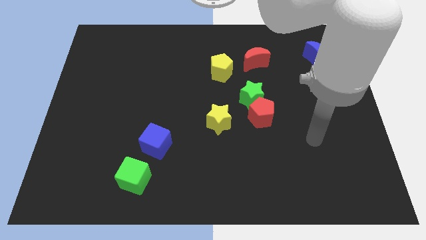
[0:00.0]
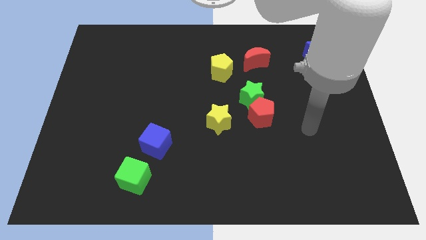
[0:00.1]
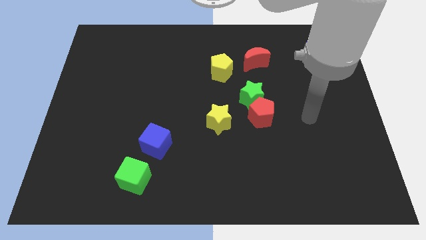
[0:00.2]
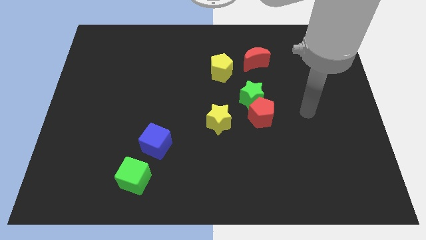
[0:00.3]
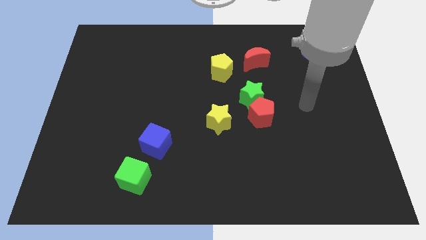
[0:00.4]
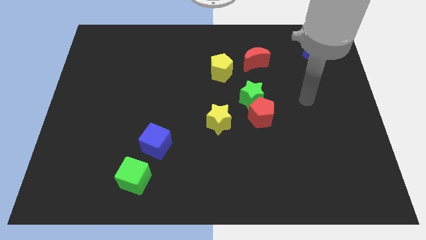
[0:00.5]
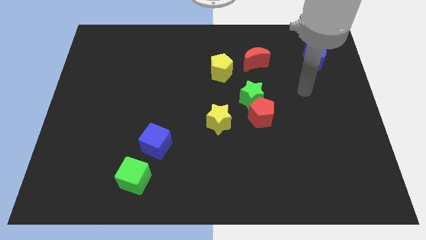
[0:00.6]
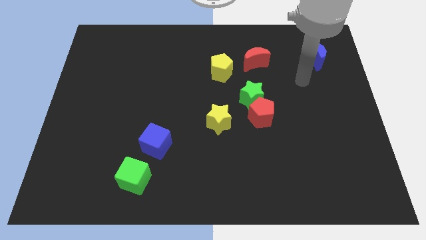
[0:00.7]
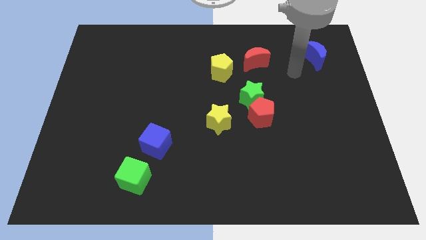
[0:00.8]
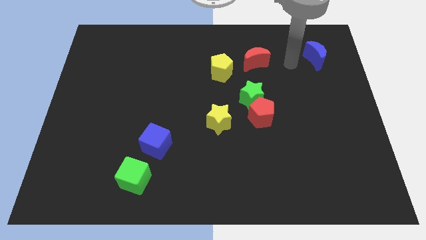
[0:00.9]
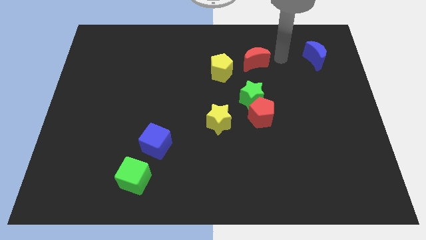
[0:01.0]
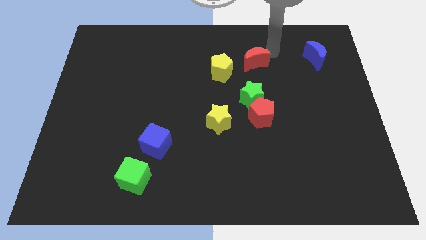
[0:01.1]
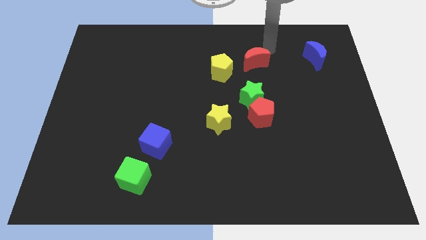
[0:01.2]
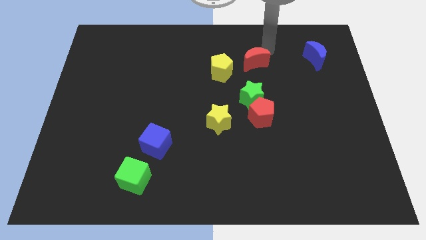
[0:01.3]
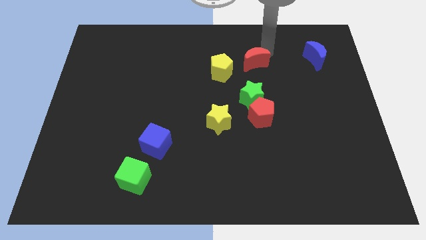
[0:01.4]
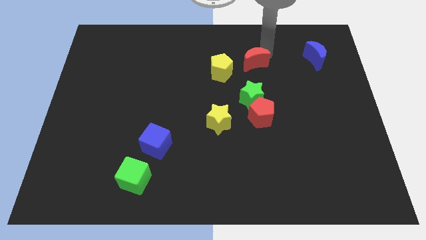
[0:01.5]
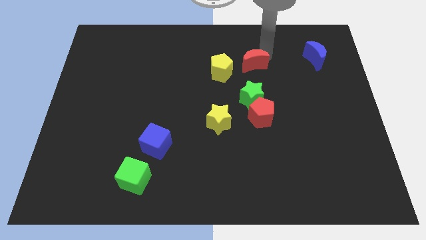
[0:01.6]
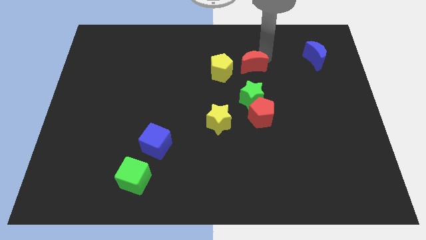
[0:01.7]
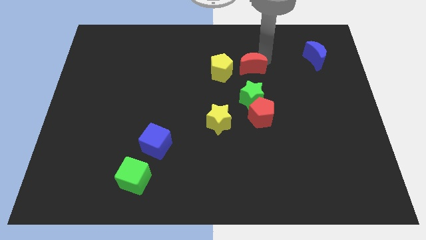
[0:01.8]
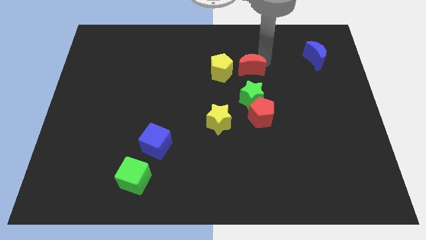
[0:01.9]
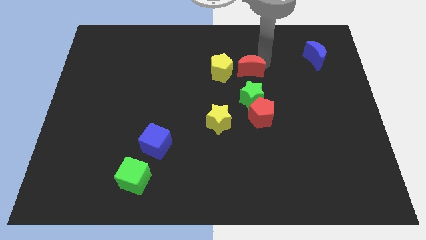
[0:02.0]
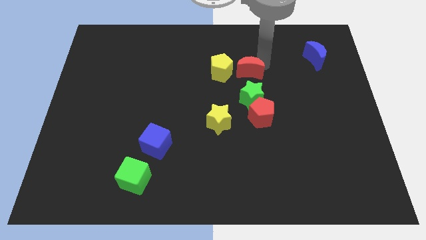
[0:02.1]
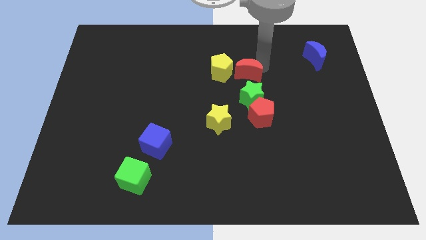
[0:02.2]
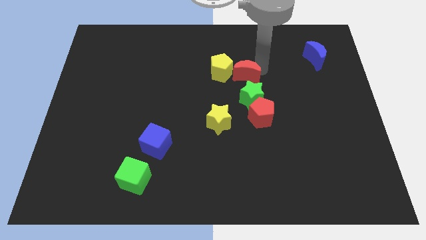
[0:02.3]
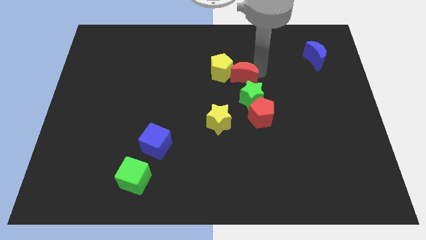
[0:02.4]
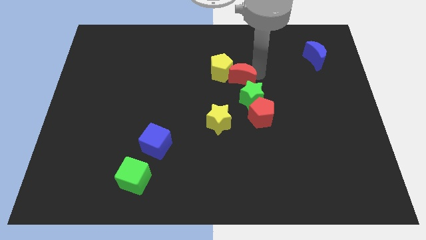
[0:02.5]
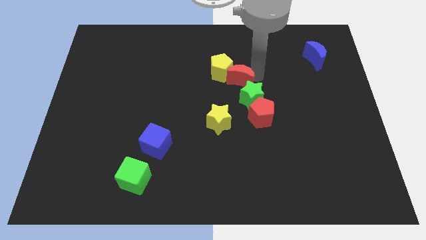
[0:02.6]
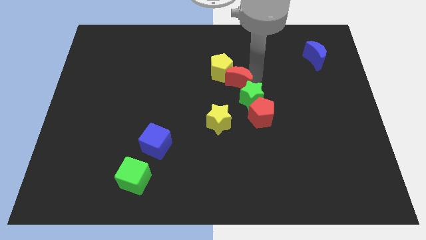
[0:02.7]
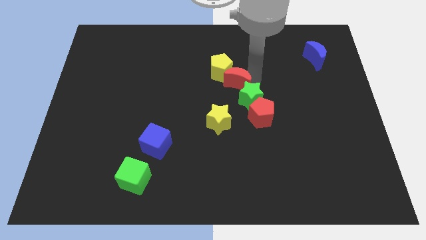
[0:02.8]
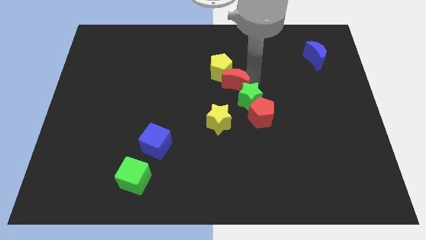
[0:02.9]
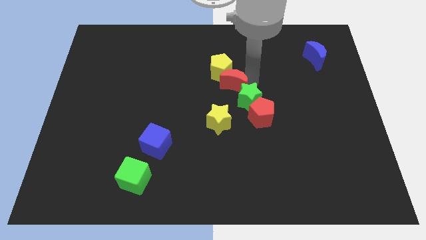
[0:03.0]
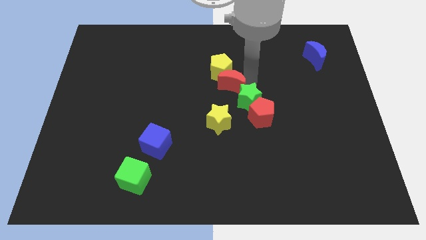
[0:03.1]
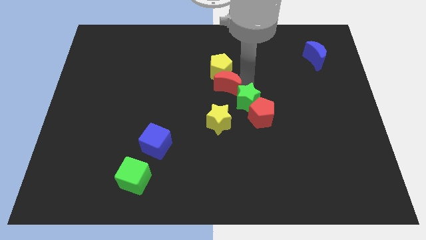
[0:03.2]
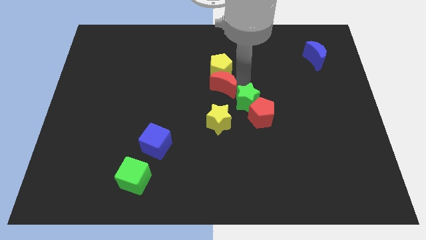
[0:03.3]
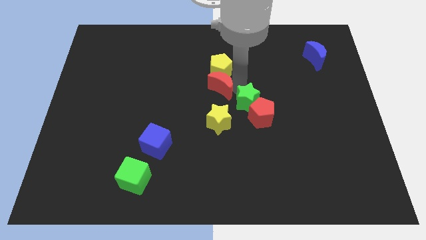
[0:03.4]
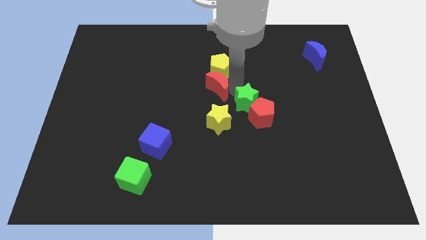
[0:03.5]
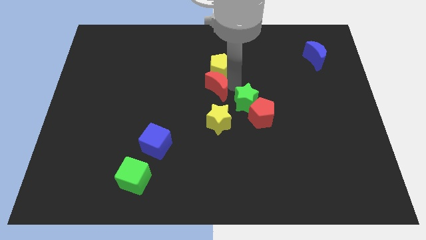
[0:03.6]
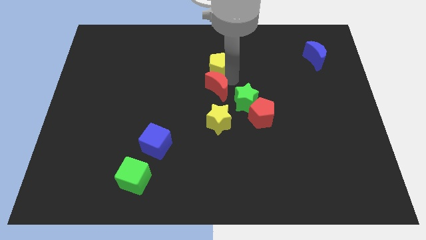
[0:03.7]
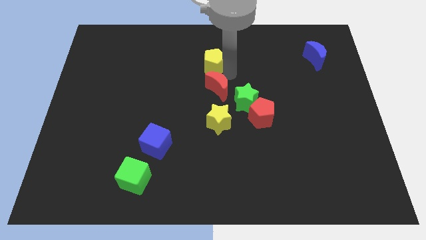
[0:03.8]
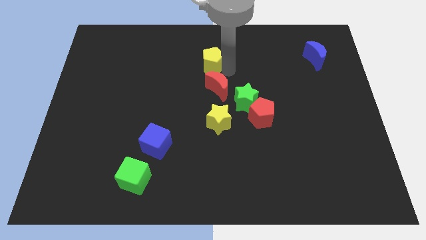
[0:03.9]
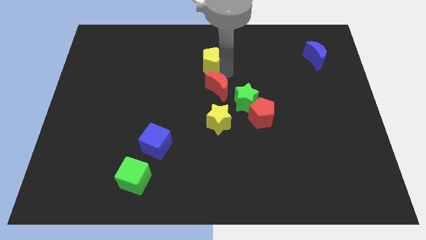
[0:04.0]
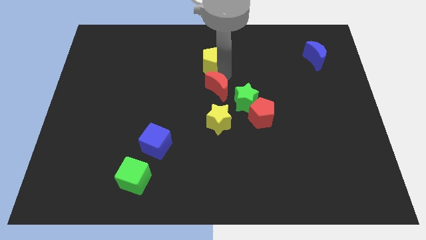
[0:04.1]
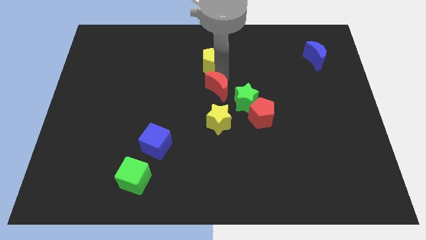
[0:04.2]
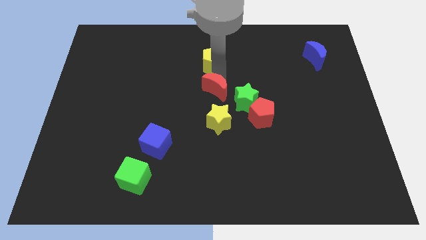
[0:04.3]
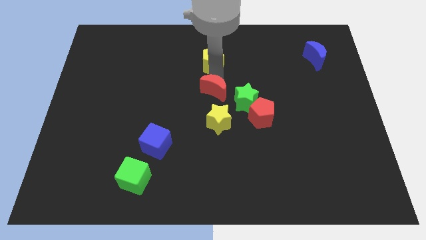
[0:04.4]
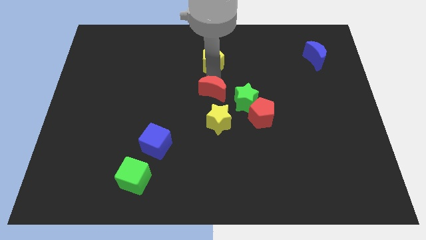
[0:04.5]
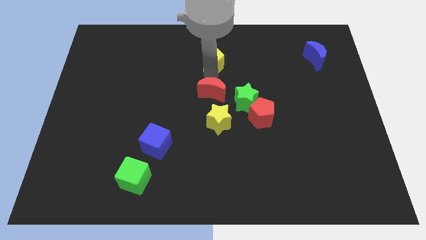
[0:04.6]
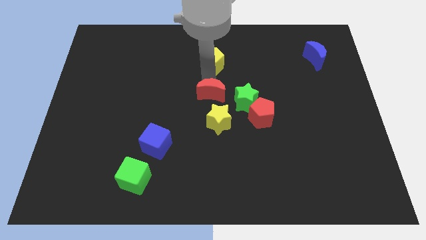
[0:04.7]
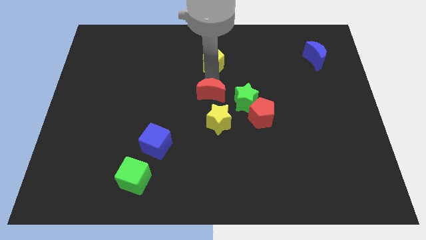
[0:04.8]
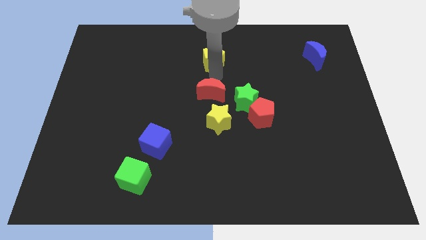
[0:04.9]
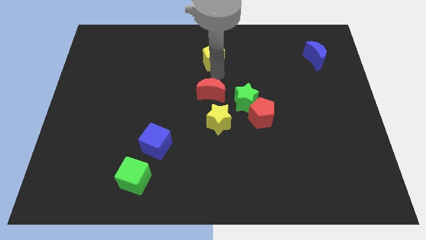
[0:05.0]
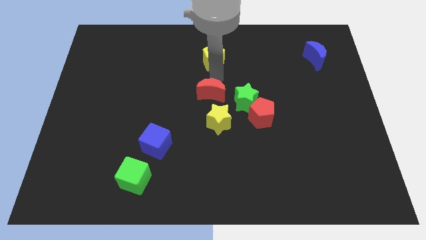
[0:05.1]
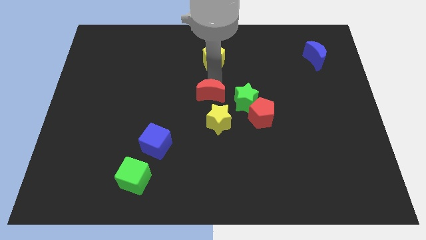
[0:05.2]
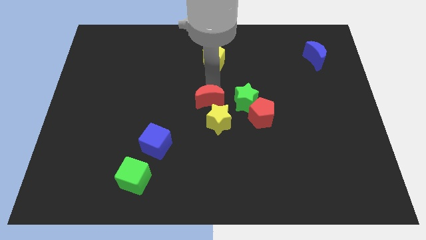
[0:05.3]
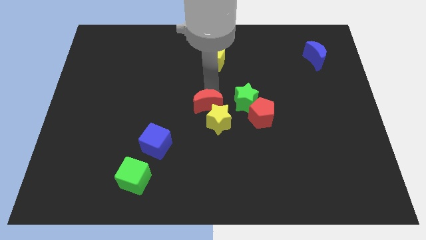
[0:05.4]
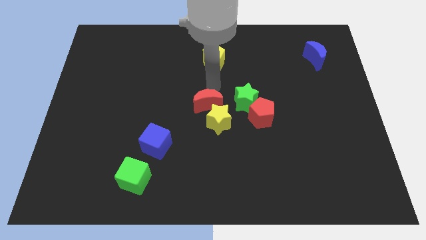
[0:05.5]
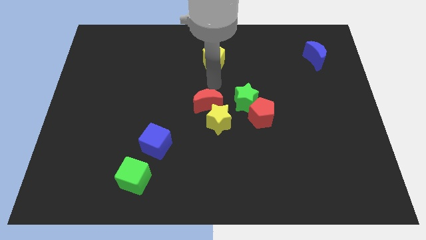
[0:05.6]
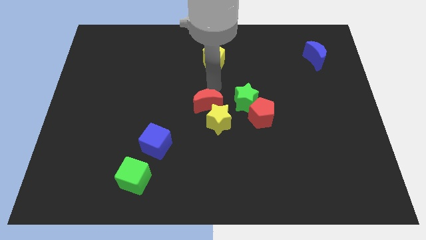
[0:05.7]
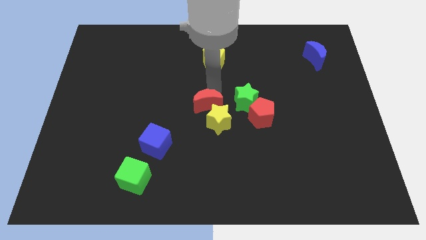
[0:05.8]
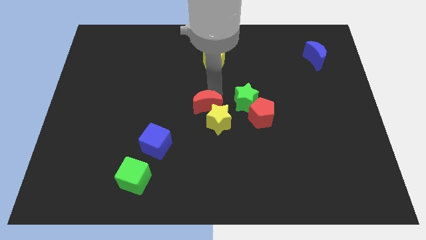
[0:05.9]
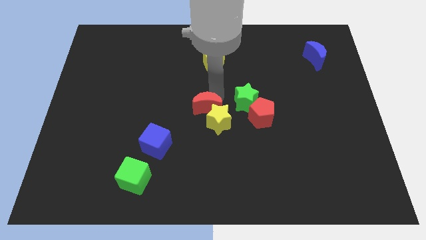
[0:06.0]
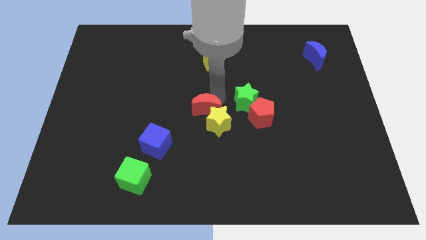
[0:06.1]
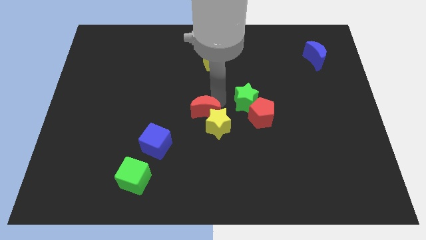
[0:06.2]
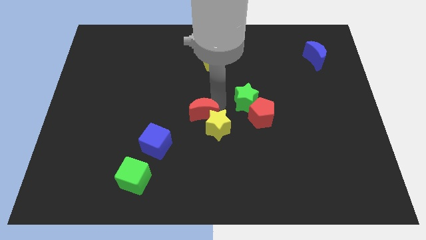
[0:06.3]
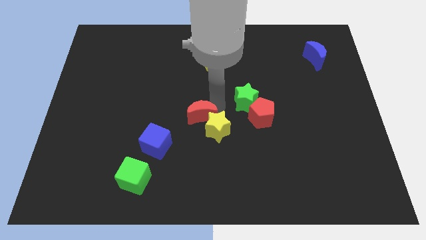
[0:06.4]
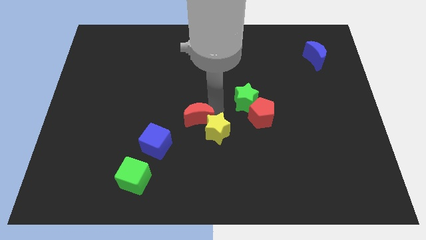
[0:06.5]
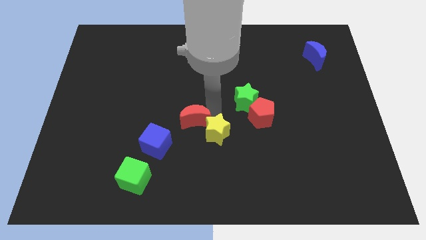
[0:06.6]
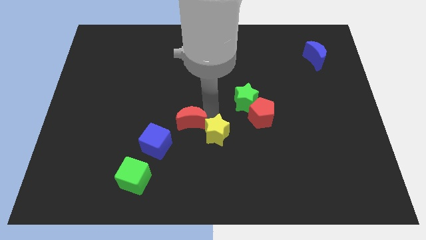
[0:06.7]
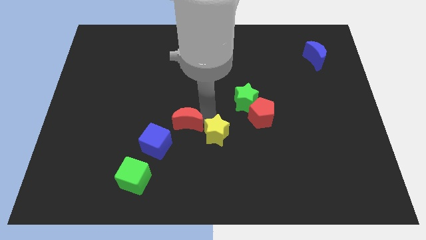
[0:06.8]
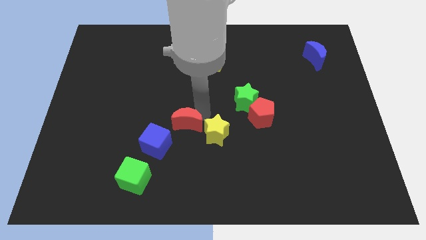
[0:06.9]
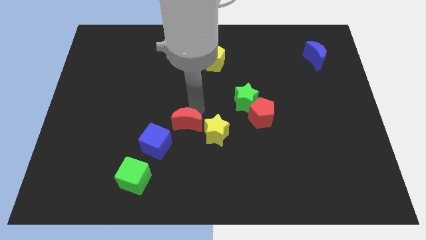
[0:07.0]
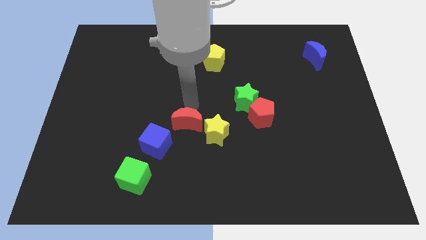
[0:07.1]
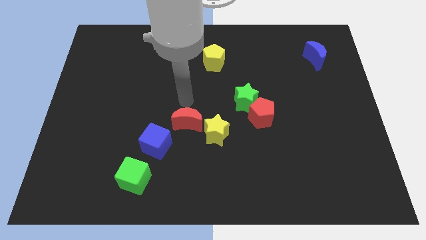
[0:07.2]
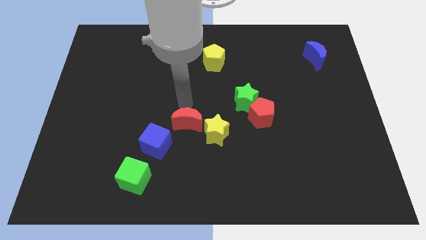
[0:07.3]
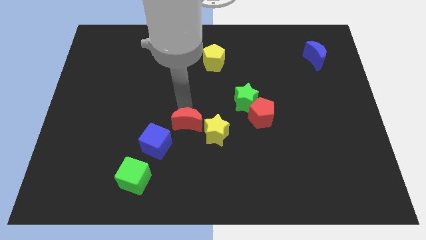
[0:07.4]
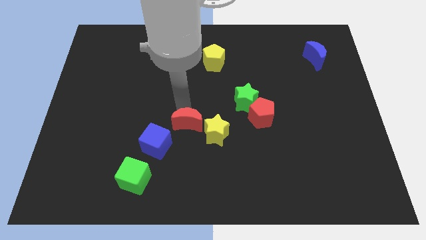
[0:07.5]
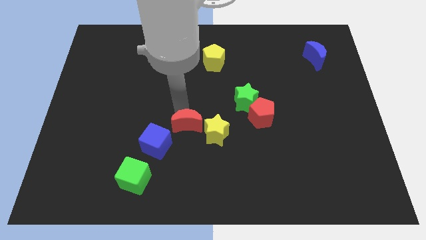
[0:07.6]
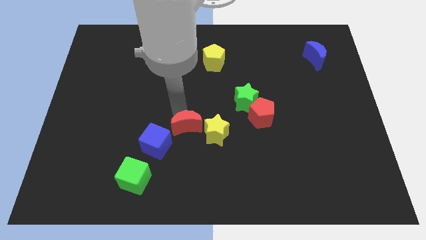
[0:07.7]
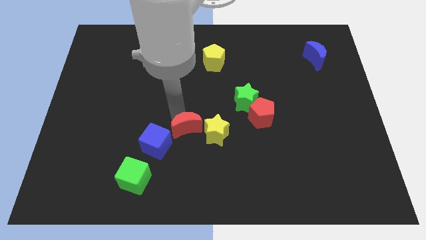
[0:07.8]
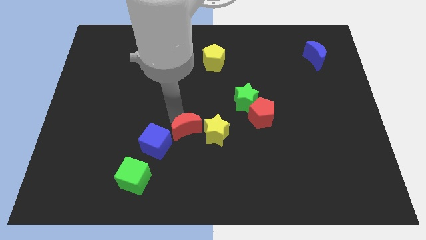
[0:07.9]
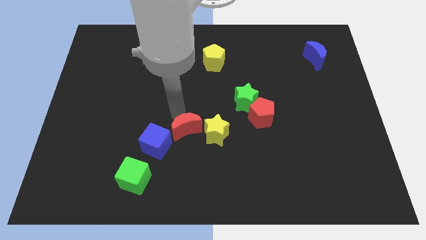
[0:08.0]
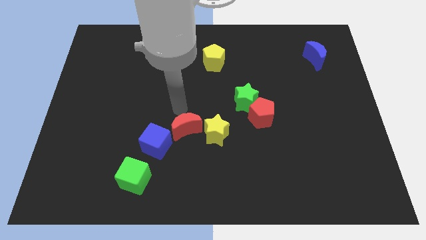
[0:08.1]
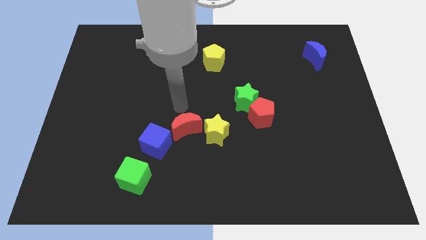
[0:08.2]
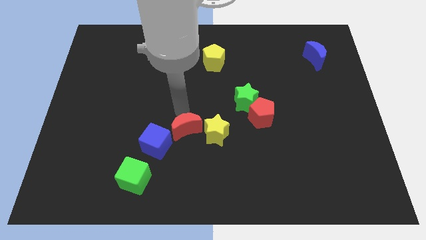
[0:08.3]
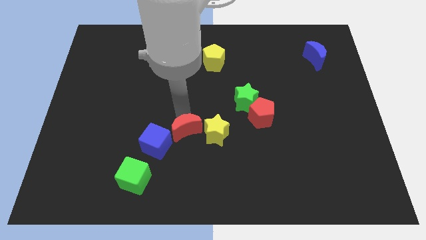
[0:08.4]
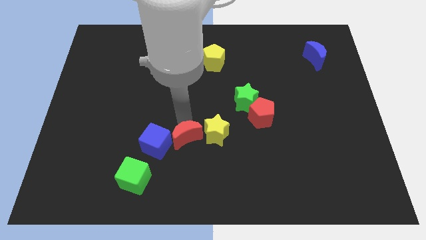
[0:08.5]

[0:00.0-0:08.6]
push the red moon to the bottom left of the yellow star
